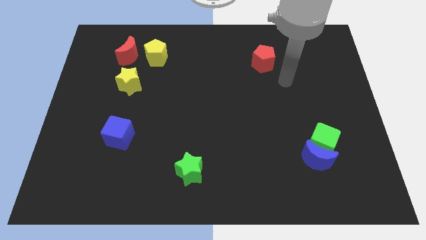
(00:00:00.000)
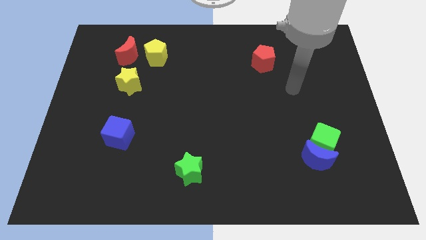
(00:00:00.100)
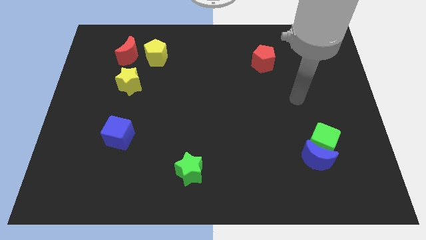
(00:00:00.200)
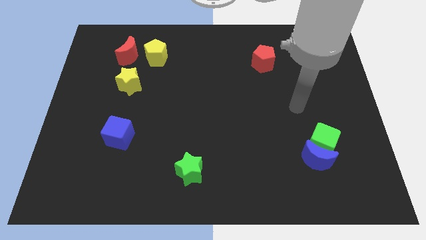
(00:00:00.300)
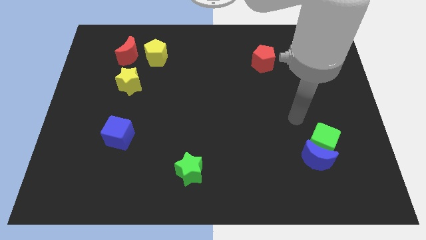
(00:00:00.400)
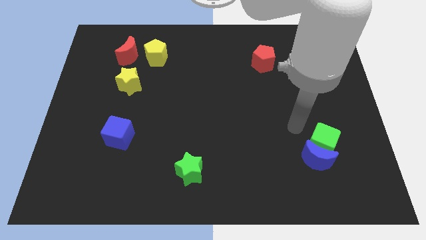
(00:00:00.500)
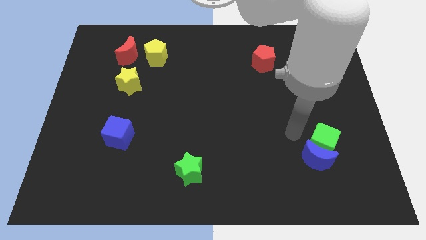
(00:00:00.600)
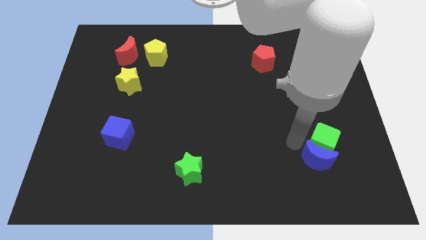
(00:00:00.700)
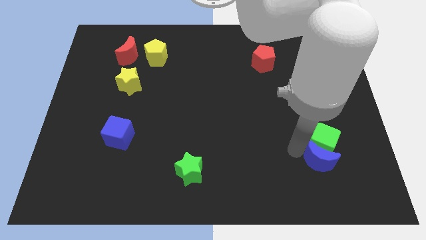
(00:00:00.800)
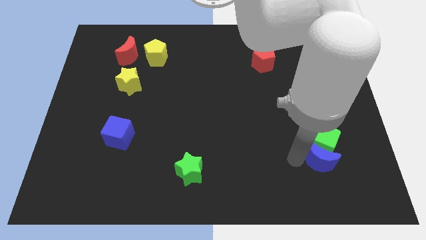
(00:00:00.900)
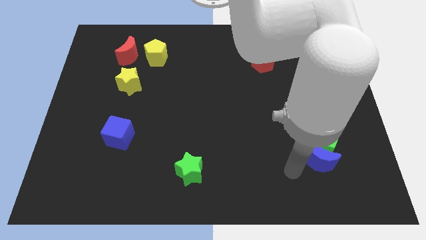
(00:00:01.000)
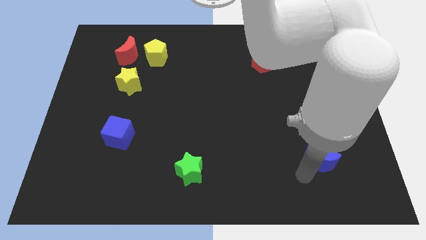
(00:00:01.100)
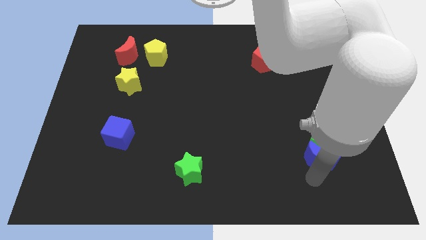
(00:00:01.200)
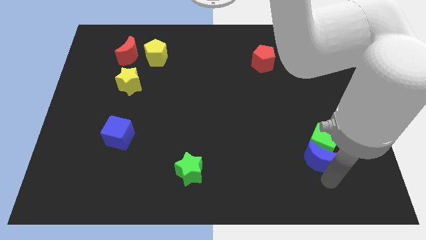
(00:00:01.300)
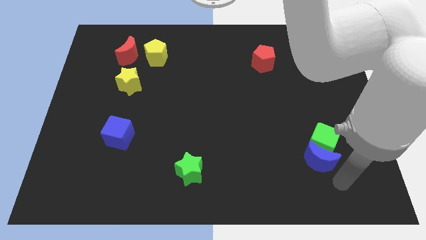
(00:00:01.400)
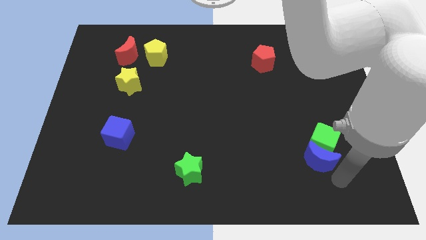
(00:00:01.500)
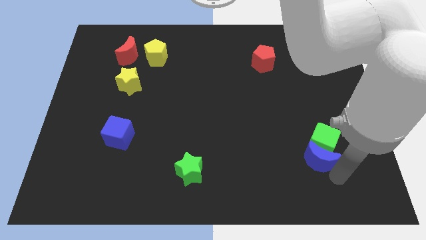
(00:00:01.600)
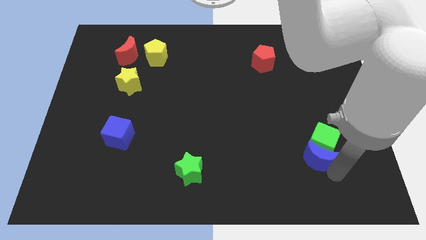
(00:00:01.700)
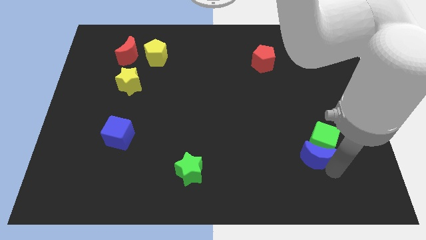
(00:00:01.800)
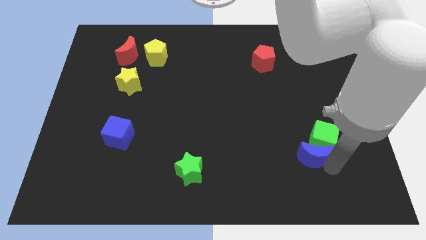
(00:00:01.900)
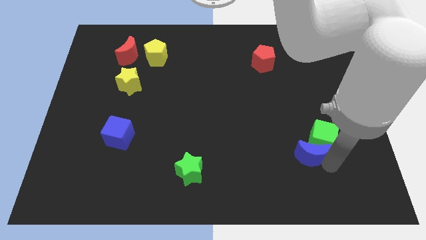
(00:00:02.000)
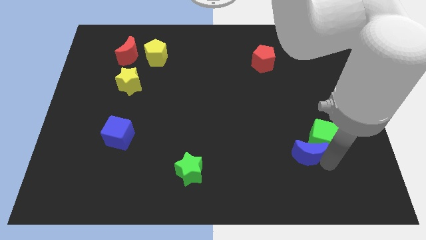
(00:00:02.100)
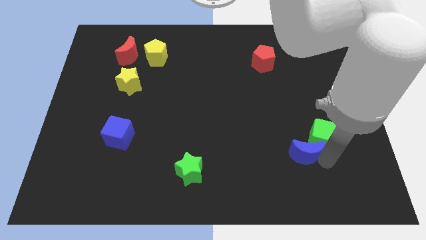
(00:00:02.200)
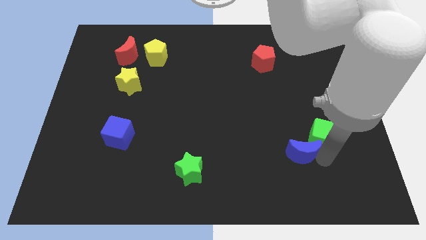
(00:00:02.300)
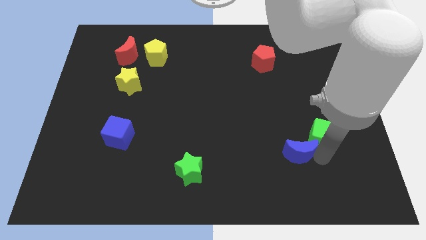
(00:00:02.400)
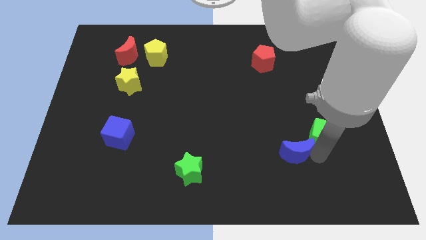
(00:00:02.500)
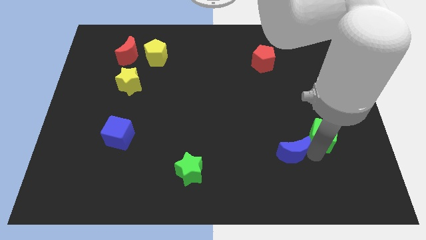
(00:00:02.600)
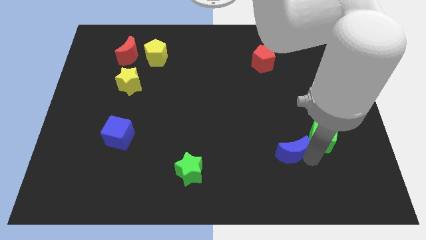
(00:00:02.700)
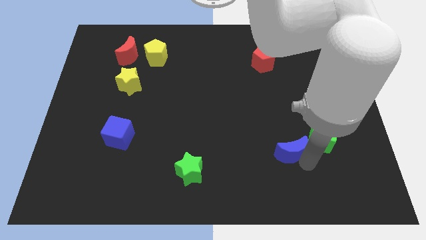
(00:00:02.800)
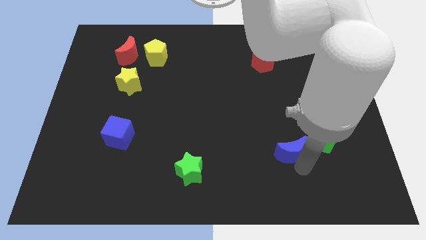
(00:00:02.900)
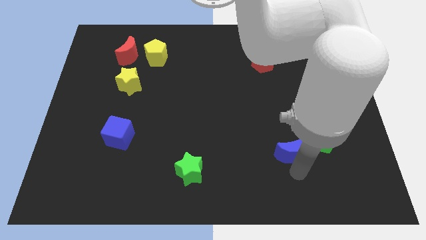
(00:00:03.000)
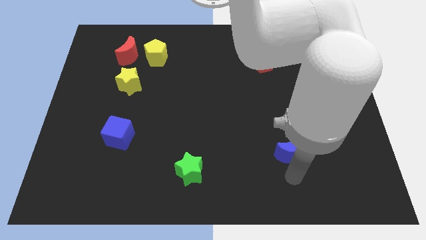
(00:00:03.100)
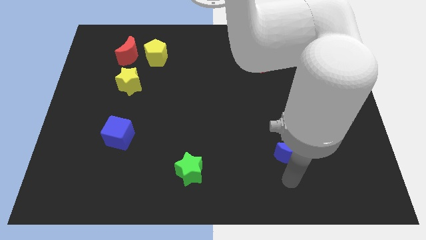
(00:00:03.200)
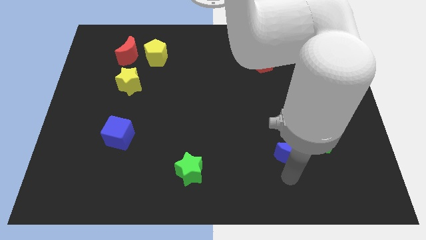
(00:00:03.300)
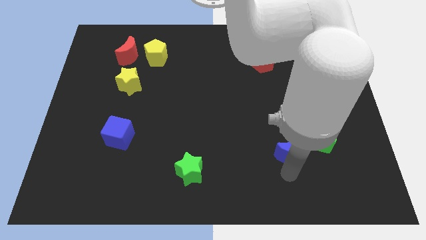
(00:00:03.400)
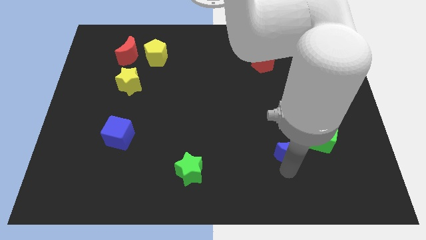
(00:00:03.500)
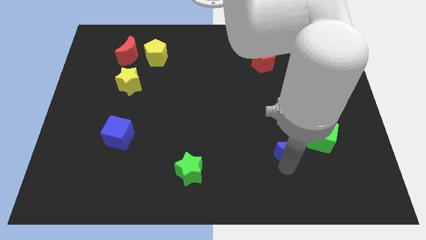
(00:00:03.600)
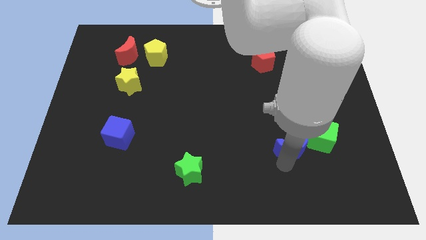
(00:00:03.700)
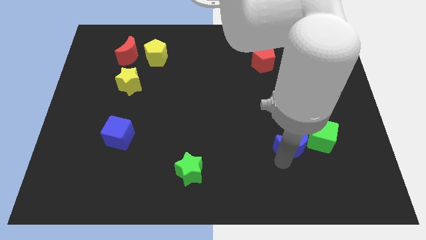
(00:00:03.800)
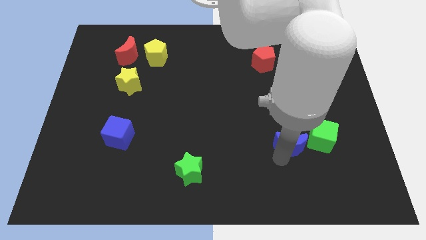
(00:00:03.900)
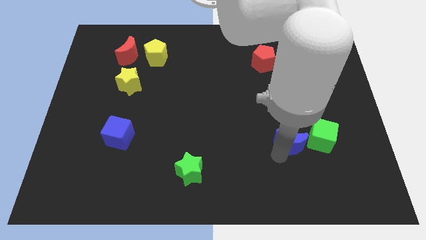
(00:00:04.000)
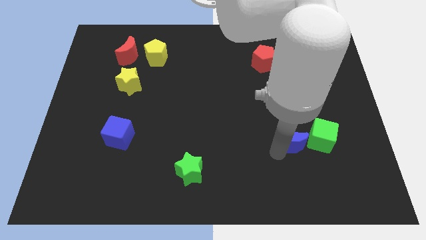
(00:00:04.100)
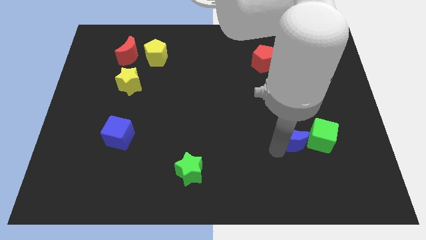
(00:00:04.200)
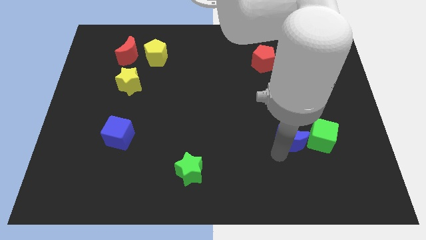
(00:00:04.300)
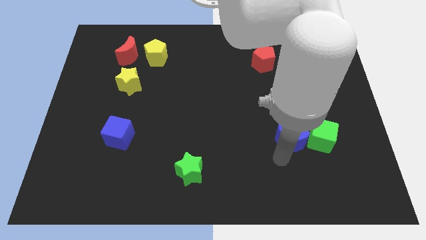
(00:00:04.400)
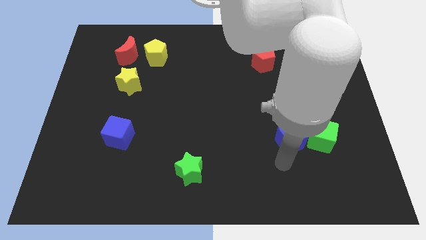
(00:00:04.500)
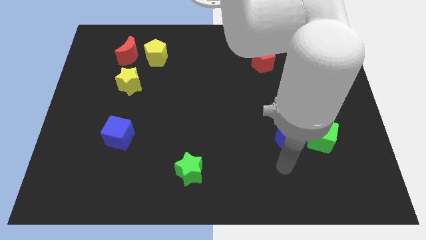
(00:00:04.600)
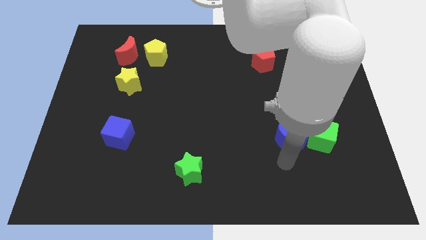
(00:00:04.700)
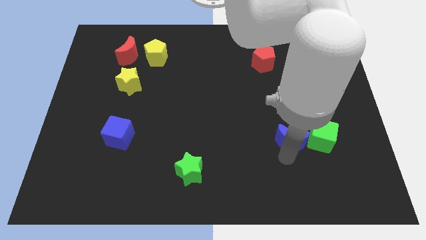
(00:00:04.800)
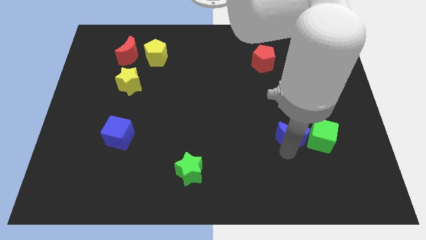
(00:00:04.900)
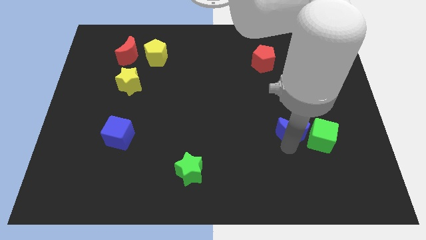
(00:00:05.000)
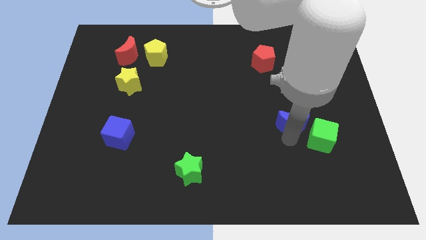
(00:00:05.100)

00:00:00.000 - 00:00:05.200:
slightly slide the blue moon up

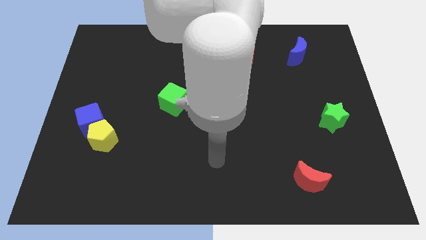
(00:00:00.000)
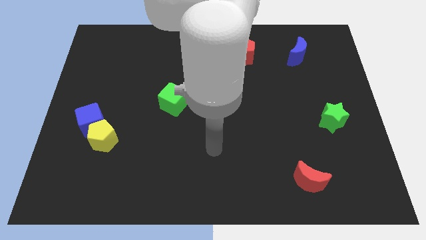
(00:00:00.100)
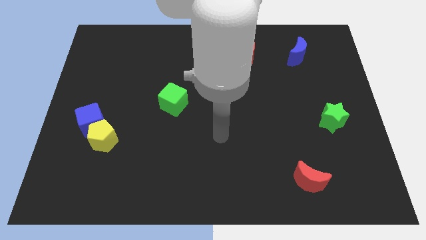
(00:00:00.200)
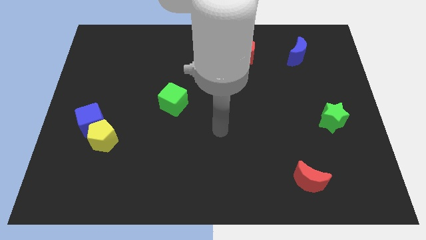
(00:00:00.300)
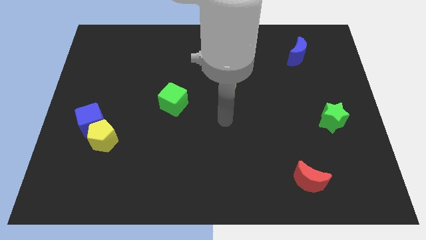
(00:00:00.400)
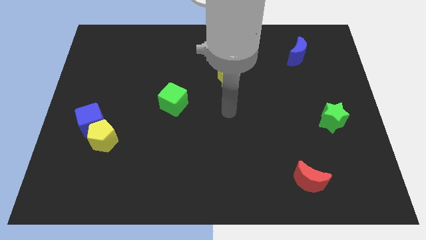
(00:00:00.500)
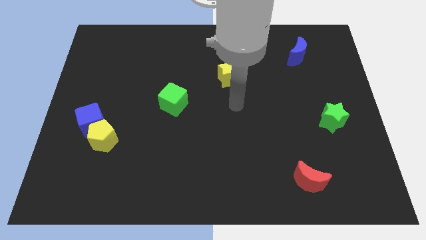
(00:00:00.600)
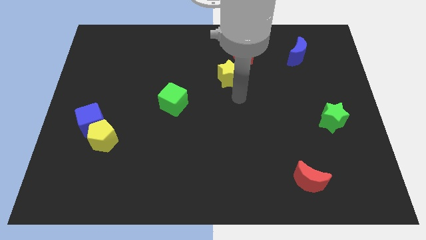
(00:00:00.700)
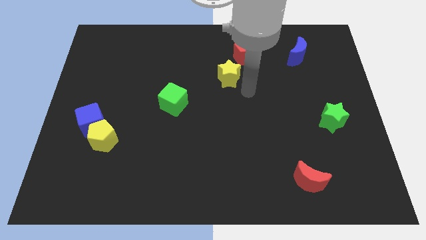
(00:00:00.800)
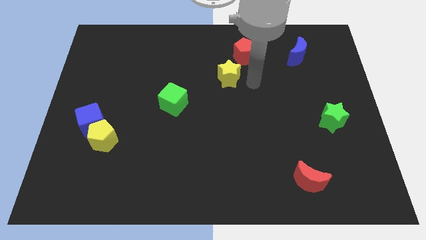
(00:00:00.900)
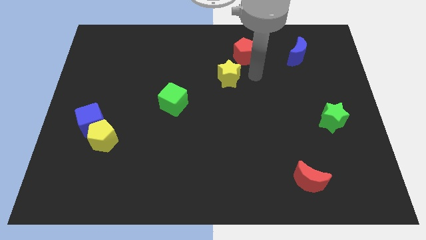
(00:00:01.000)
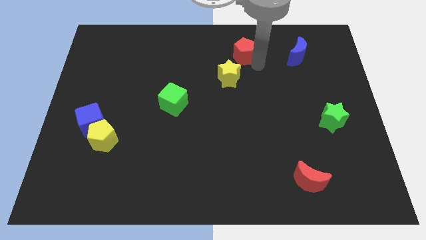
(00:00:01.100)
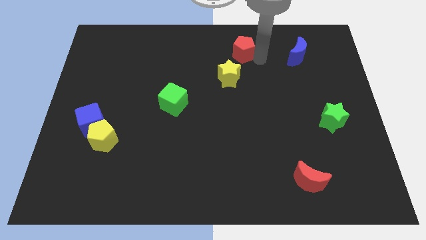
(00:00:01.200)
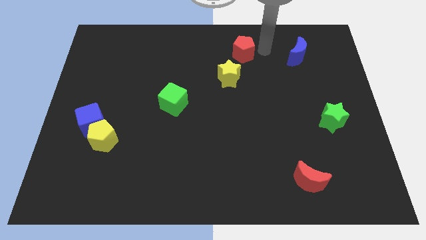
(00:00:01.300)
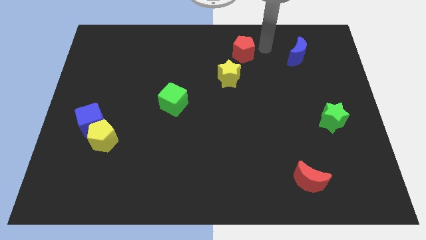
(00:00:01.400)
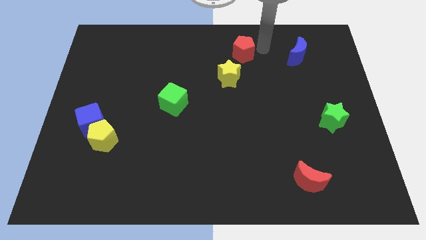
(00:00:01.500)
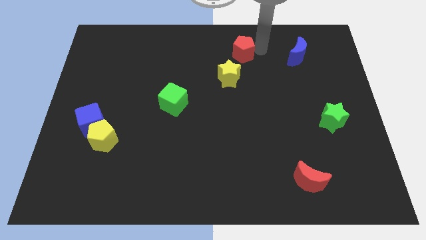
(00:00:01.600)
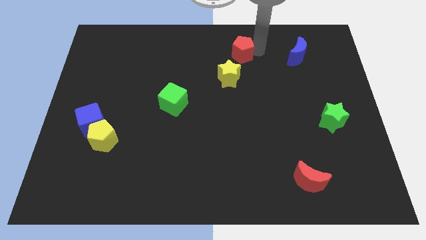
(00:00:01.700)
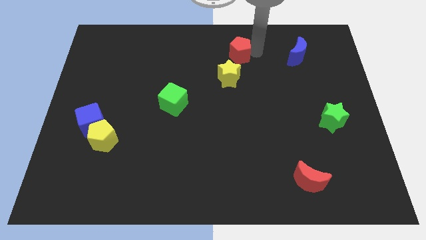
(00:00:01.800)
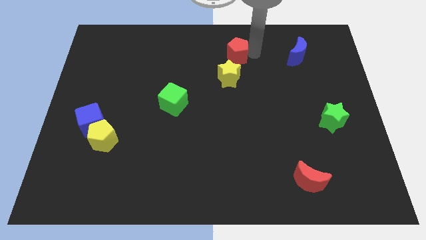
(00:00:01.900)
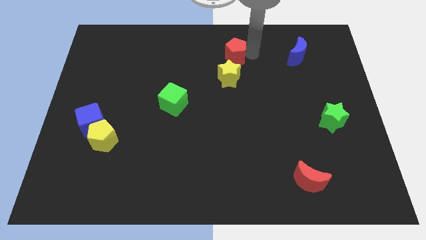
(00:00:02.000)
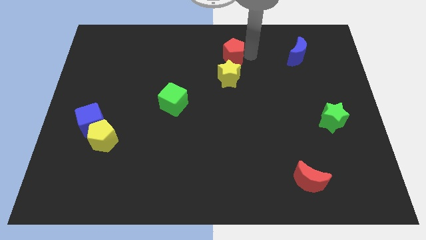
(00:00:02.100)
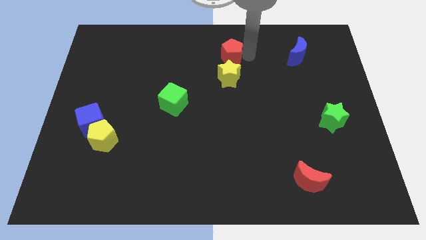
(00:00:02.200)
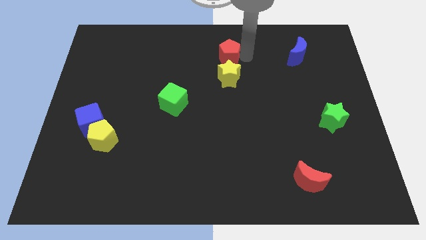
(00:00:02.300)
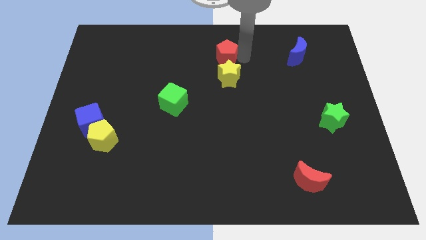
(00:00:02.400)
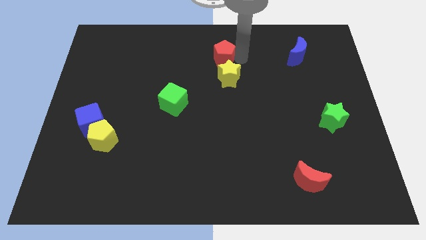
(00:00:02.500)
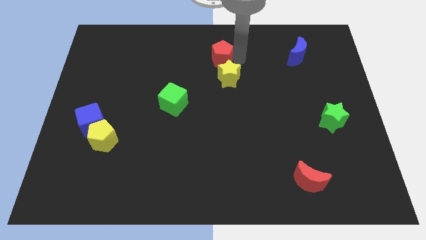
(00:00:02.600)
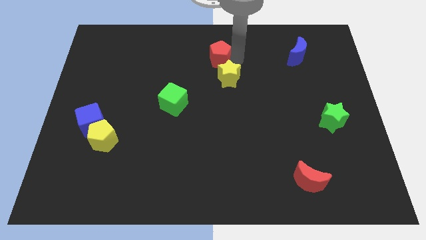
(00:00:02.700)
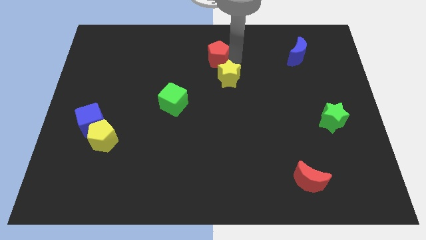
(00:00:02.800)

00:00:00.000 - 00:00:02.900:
slide the red pentagon a little bit left
